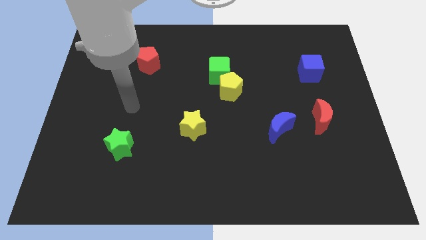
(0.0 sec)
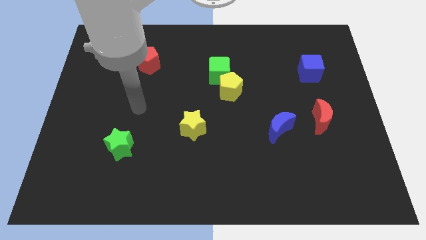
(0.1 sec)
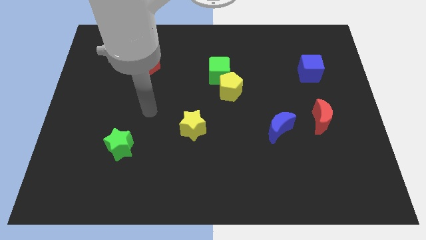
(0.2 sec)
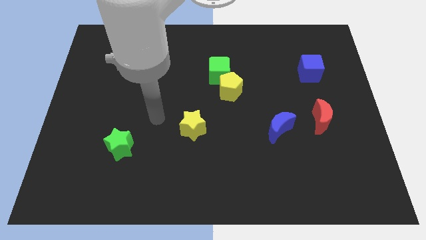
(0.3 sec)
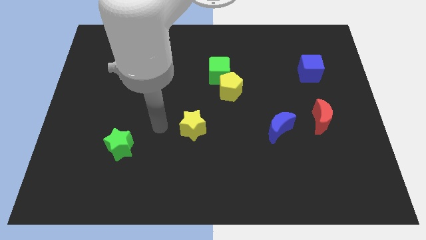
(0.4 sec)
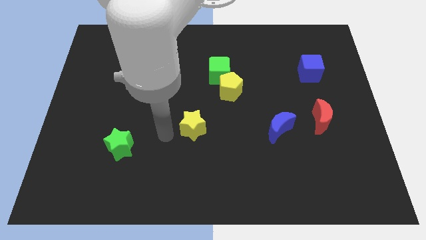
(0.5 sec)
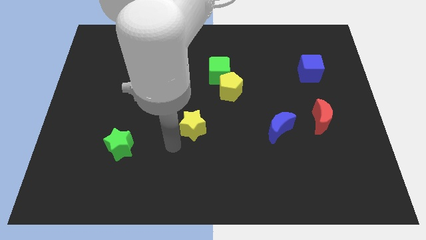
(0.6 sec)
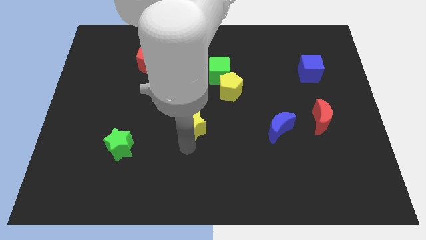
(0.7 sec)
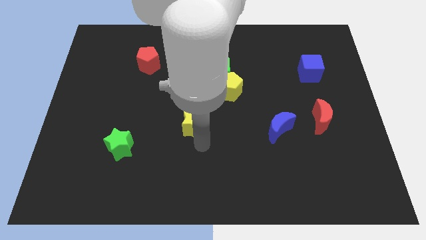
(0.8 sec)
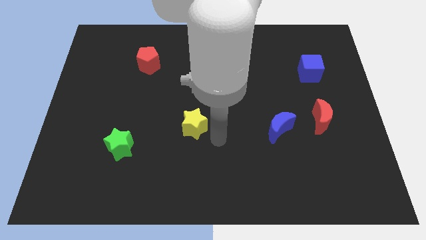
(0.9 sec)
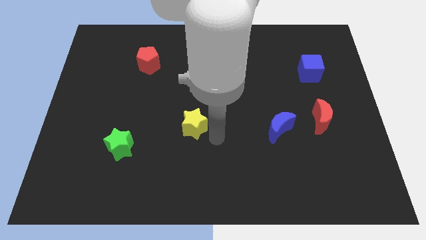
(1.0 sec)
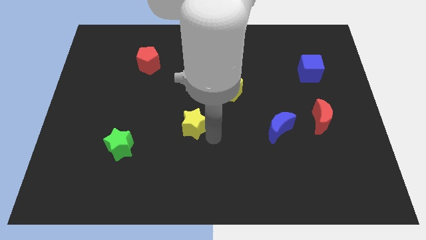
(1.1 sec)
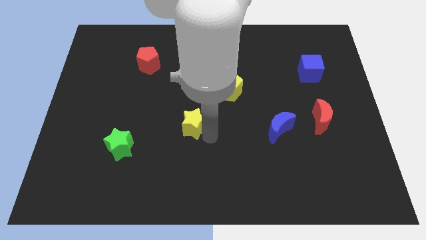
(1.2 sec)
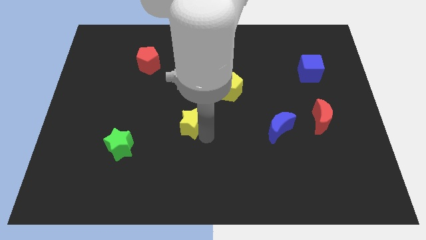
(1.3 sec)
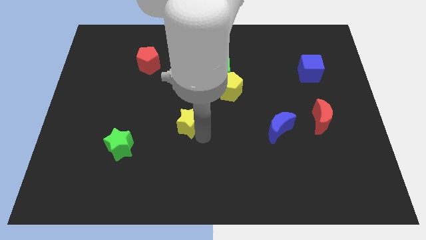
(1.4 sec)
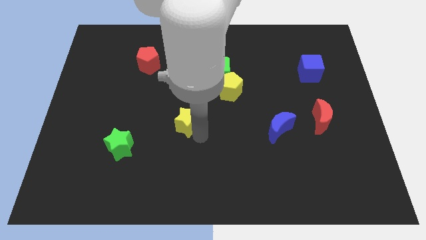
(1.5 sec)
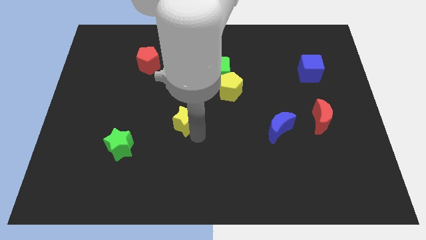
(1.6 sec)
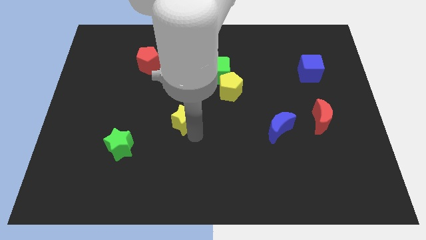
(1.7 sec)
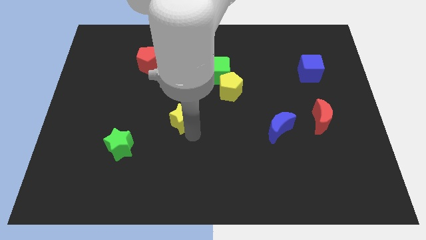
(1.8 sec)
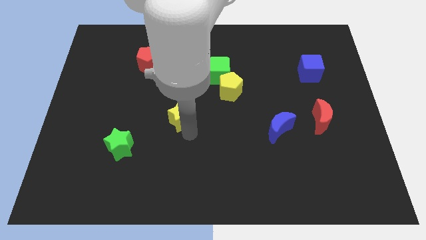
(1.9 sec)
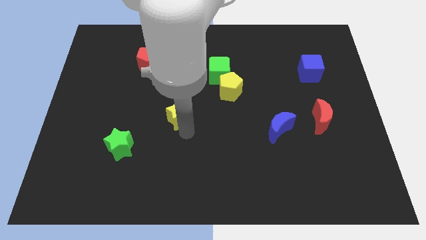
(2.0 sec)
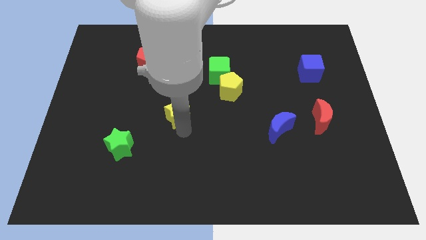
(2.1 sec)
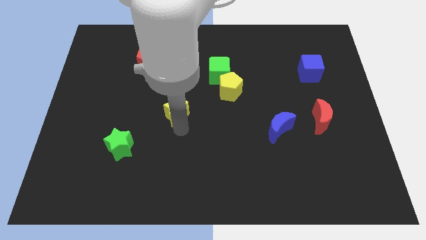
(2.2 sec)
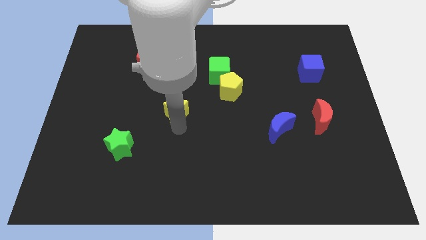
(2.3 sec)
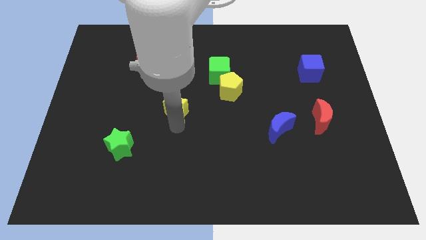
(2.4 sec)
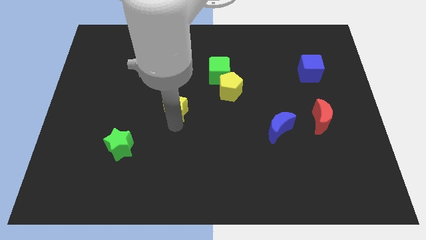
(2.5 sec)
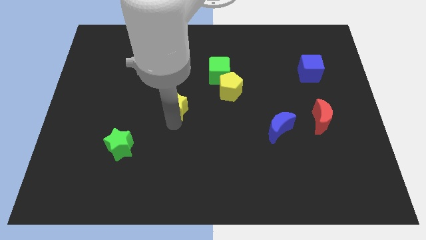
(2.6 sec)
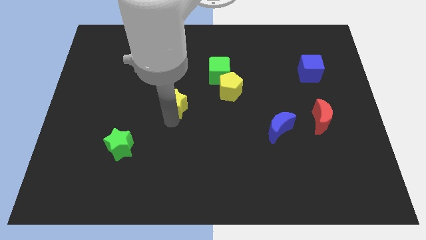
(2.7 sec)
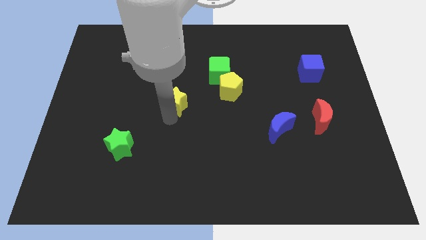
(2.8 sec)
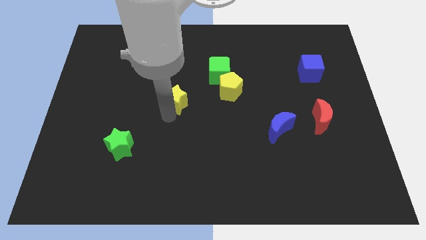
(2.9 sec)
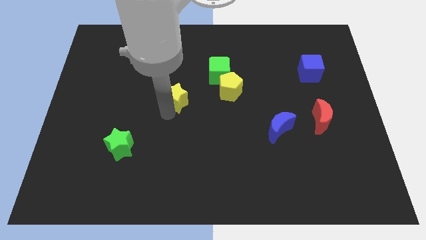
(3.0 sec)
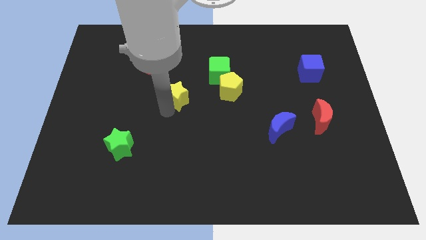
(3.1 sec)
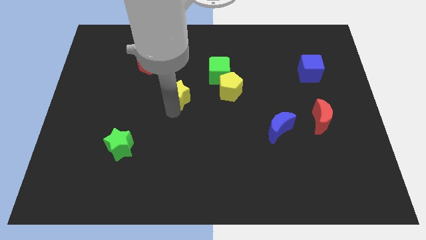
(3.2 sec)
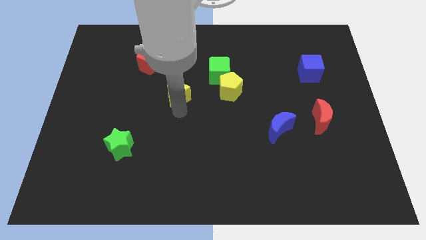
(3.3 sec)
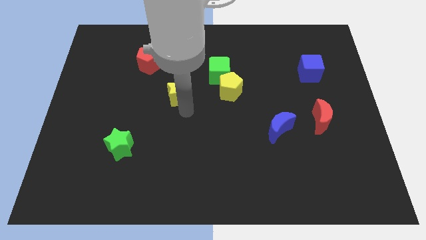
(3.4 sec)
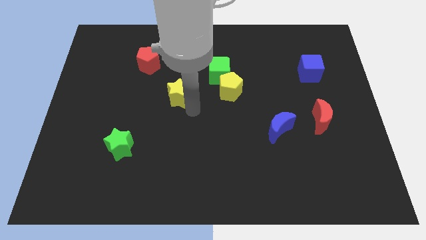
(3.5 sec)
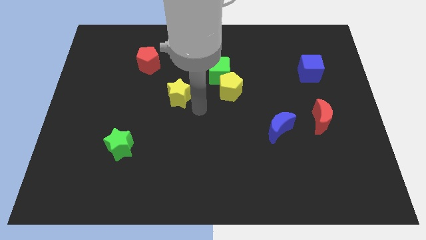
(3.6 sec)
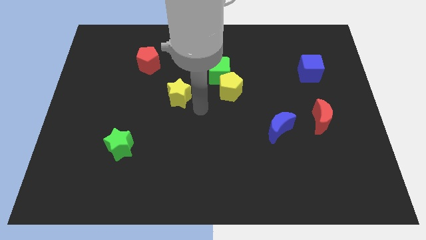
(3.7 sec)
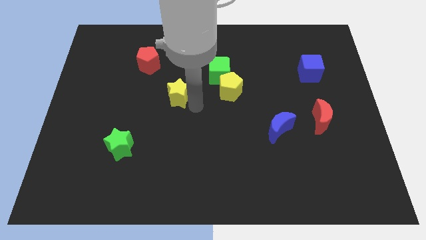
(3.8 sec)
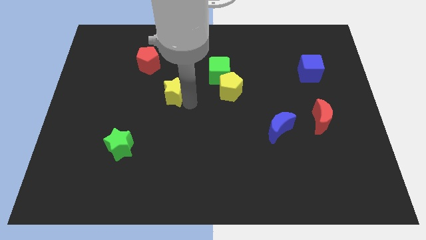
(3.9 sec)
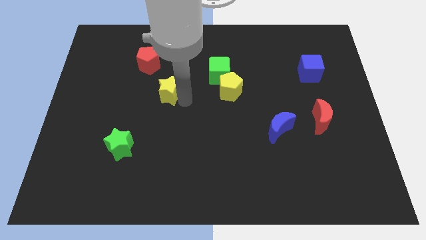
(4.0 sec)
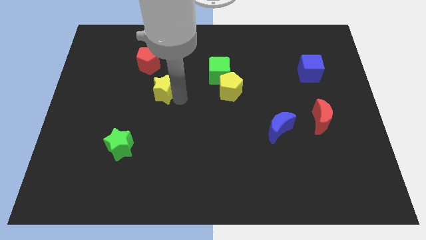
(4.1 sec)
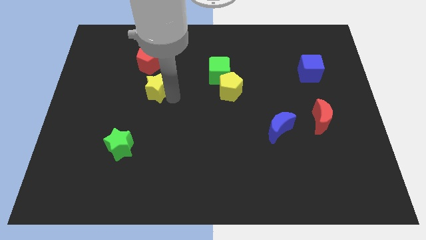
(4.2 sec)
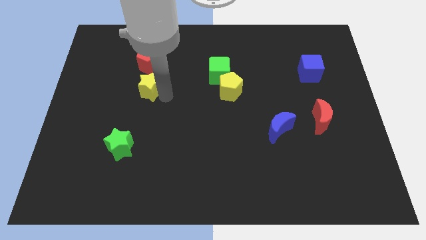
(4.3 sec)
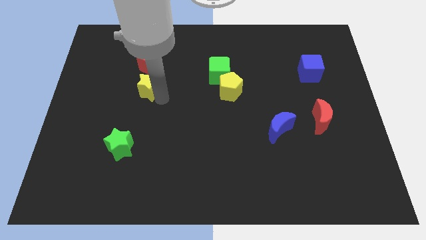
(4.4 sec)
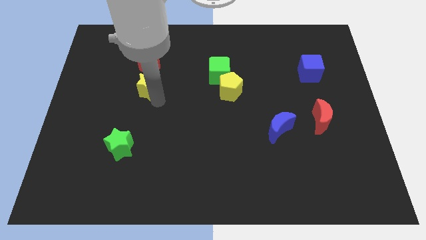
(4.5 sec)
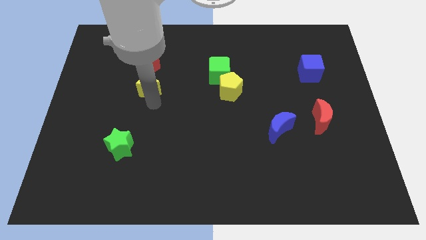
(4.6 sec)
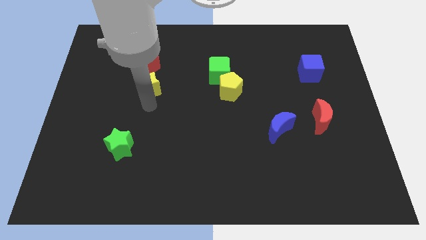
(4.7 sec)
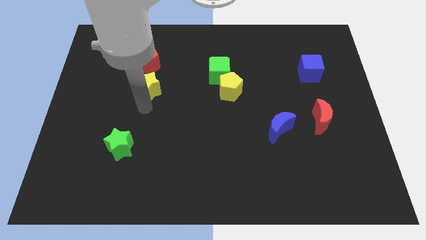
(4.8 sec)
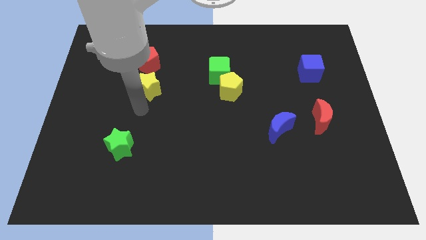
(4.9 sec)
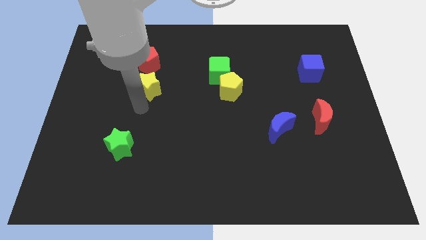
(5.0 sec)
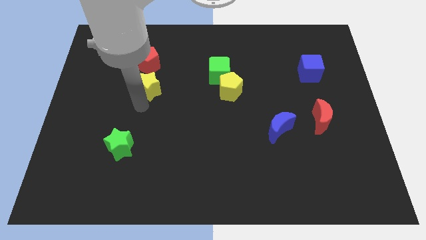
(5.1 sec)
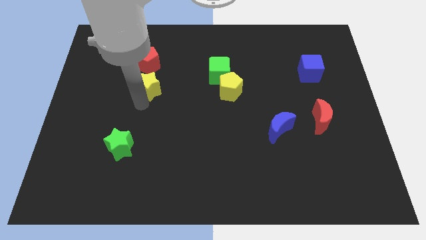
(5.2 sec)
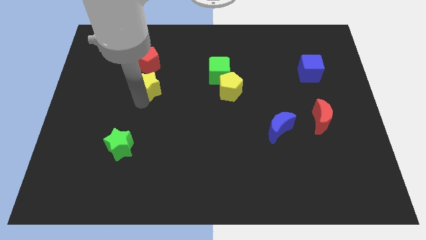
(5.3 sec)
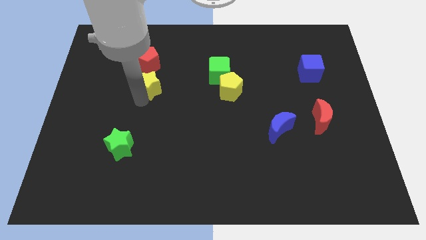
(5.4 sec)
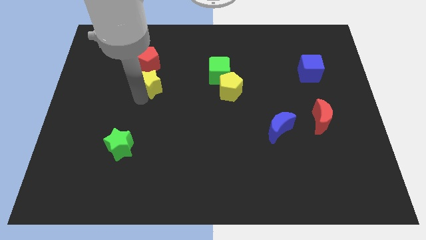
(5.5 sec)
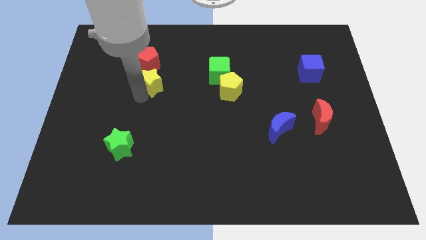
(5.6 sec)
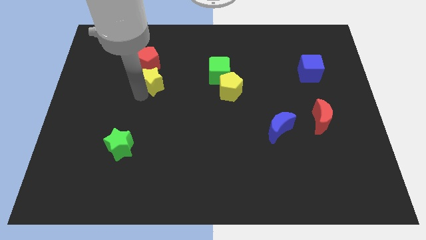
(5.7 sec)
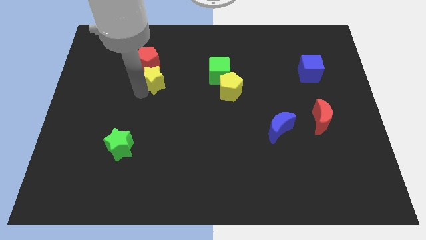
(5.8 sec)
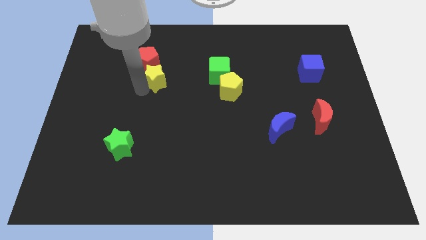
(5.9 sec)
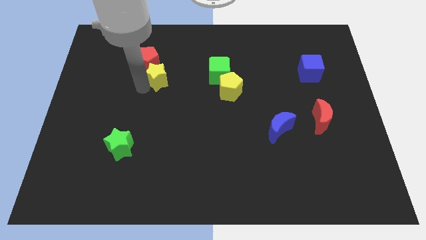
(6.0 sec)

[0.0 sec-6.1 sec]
push the yellow star close to the red pentagon

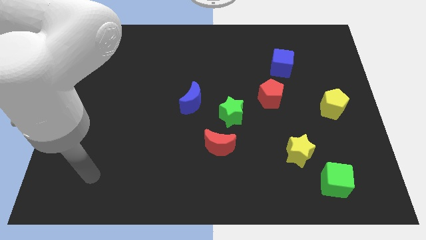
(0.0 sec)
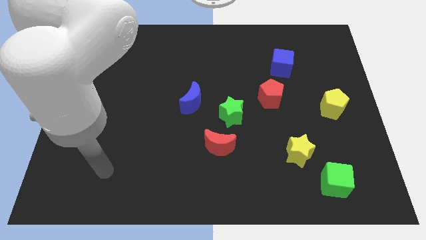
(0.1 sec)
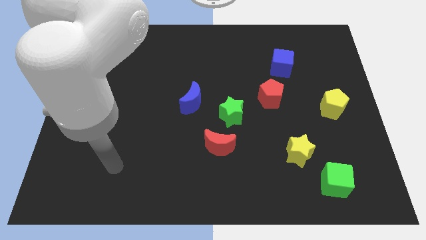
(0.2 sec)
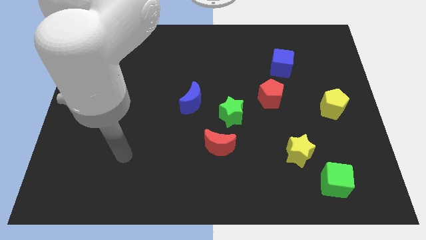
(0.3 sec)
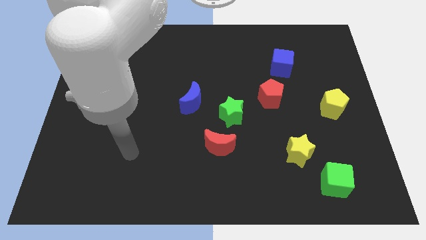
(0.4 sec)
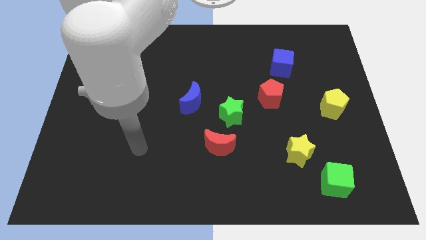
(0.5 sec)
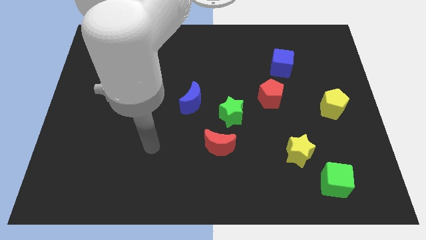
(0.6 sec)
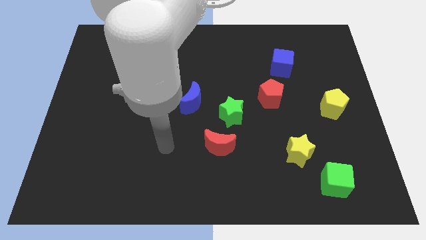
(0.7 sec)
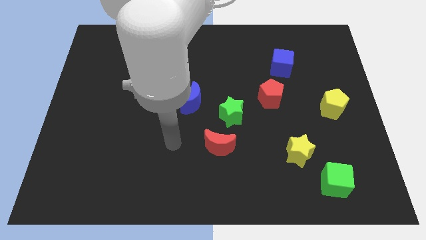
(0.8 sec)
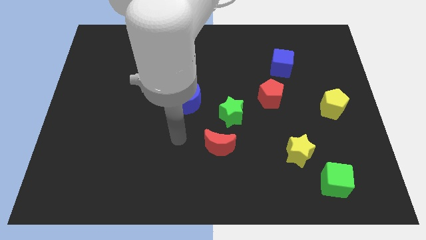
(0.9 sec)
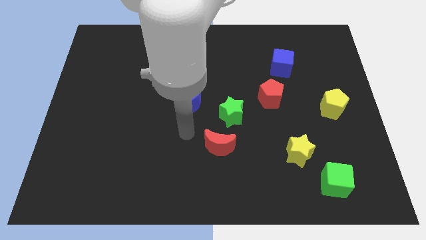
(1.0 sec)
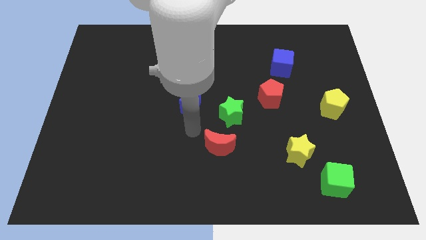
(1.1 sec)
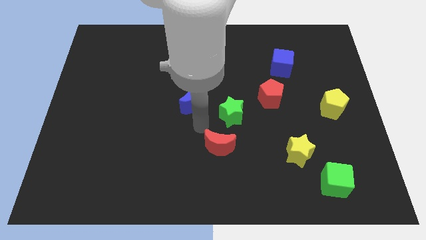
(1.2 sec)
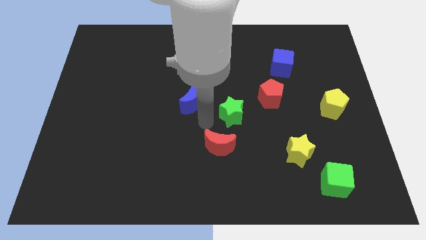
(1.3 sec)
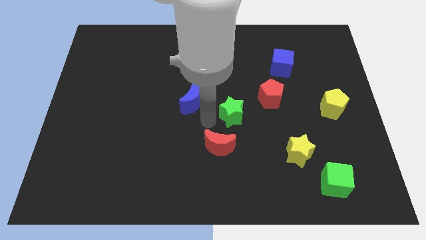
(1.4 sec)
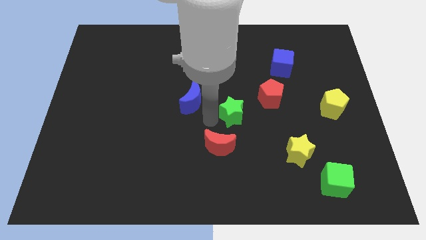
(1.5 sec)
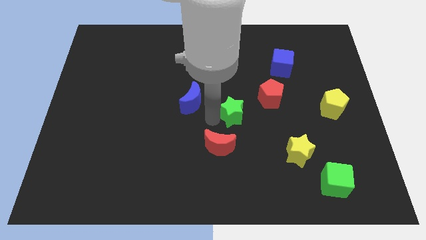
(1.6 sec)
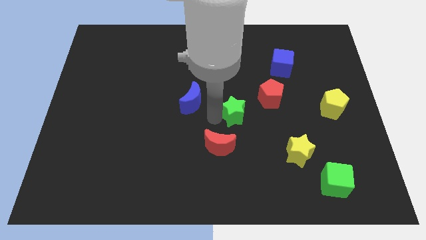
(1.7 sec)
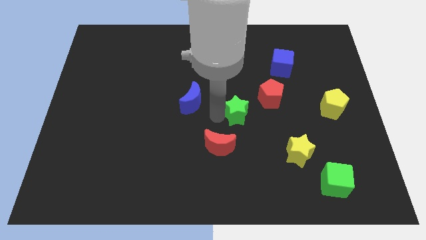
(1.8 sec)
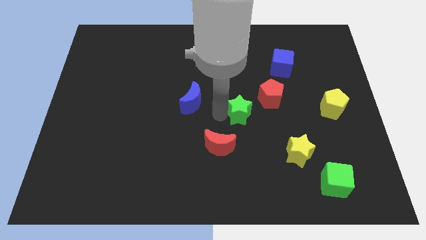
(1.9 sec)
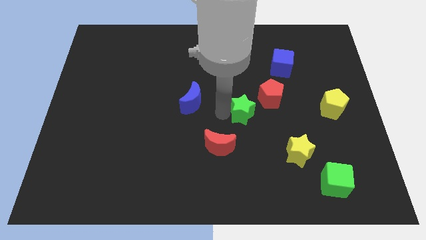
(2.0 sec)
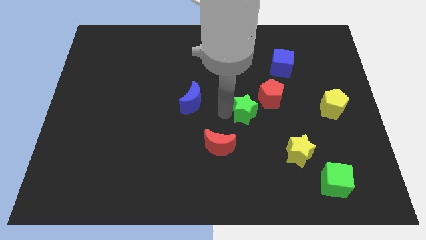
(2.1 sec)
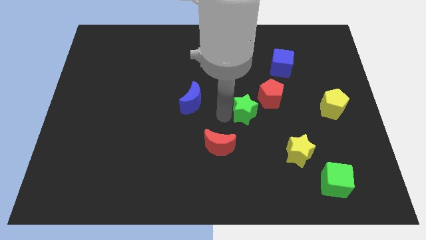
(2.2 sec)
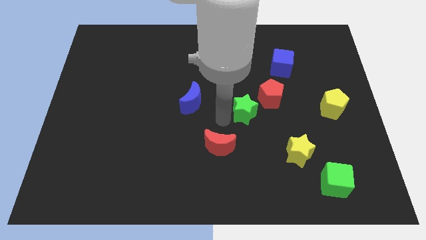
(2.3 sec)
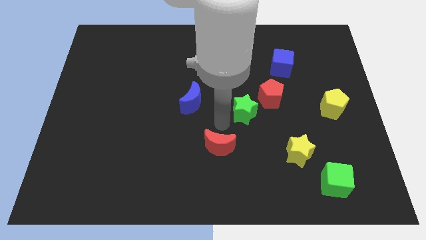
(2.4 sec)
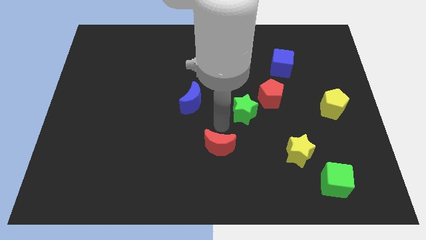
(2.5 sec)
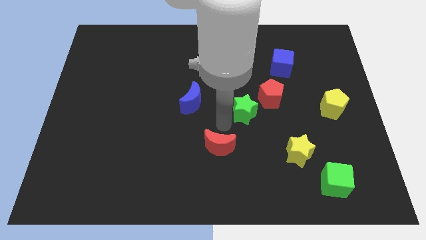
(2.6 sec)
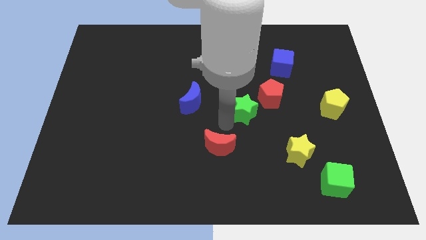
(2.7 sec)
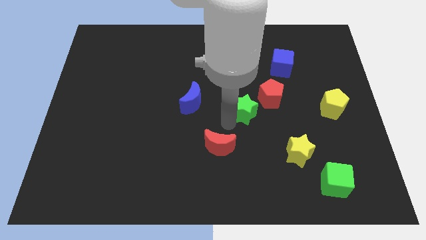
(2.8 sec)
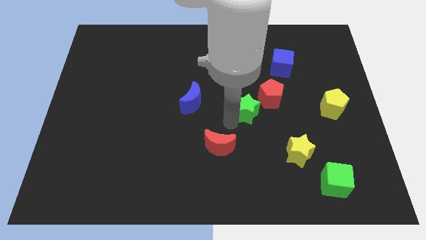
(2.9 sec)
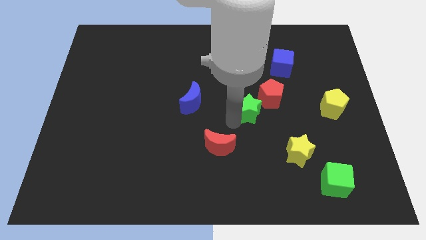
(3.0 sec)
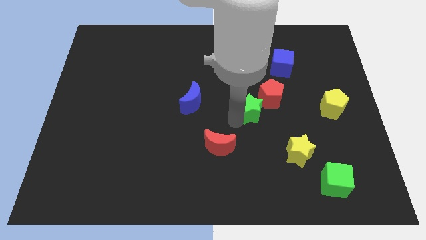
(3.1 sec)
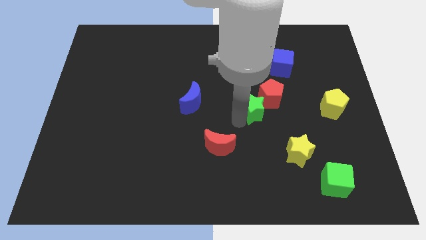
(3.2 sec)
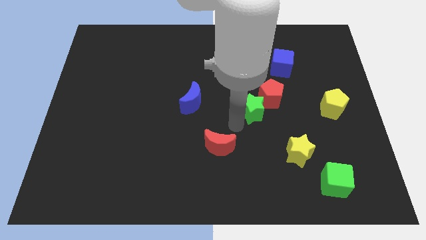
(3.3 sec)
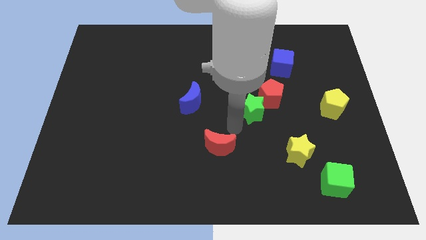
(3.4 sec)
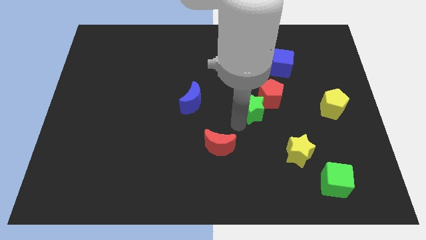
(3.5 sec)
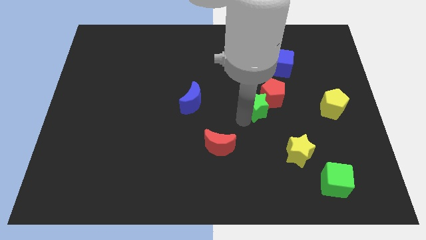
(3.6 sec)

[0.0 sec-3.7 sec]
slide the green star close to the red pentagon
